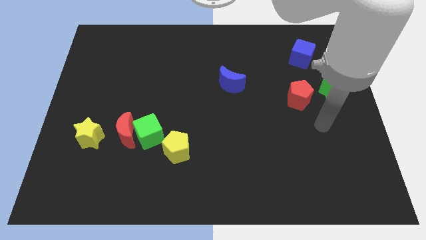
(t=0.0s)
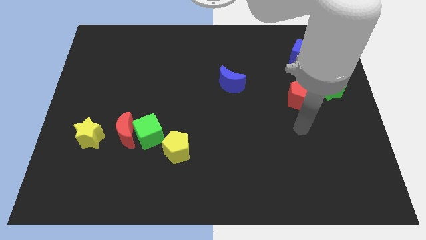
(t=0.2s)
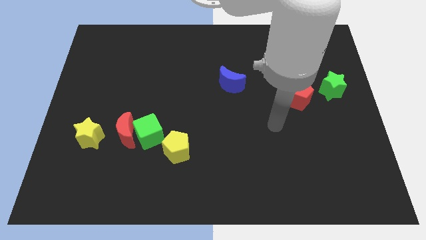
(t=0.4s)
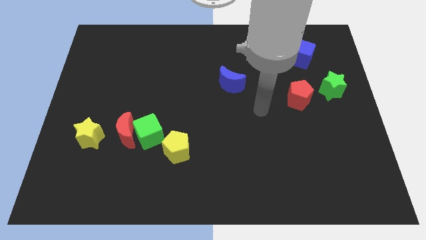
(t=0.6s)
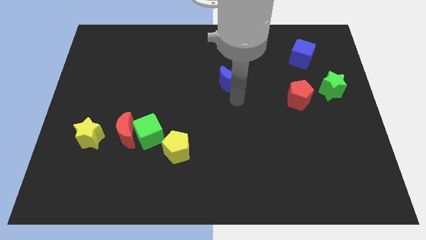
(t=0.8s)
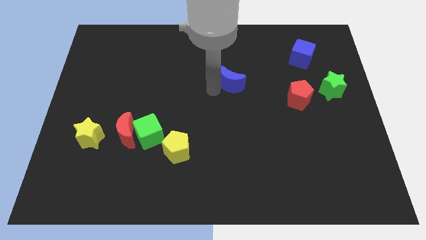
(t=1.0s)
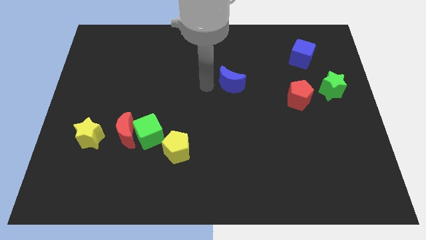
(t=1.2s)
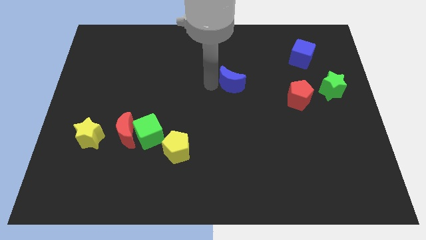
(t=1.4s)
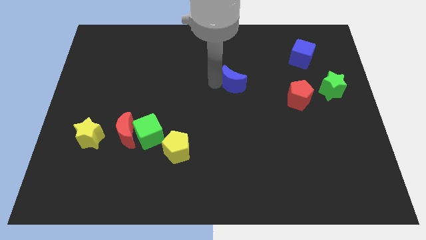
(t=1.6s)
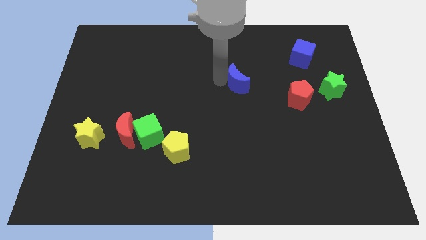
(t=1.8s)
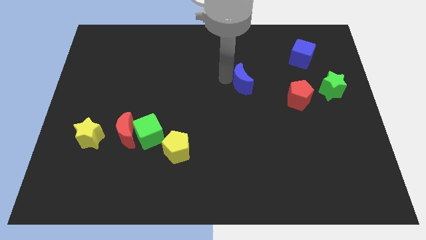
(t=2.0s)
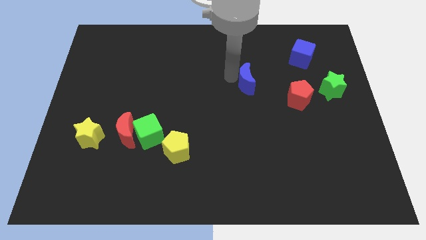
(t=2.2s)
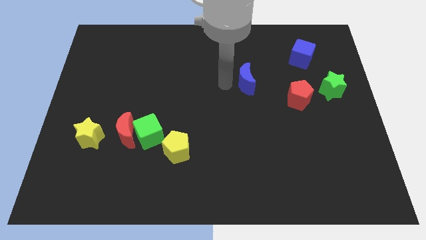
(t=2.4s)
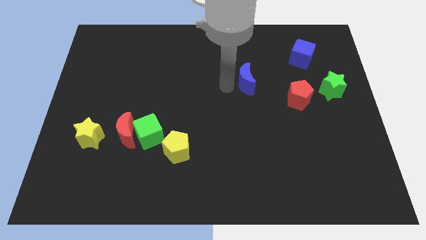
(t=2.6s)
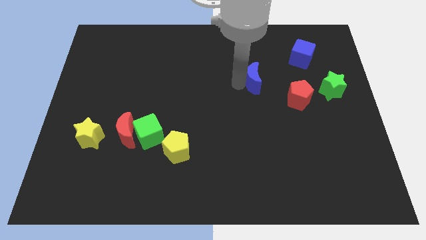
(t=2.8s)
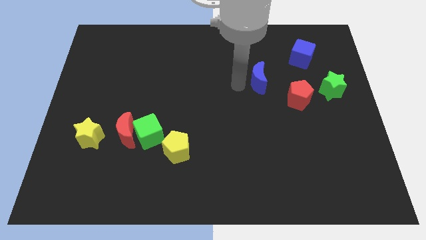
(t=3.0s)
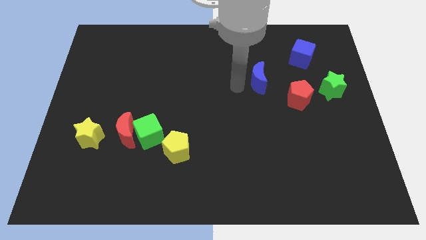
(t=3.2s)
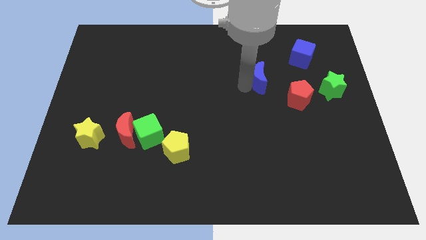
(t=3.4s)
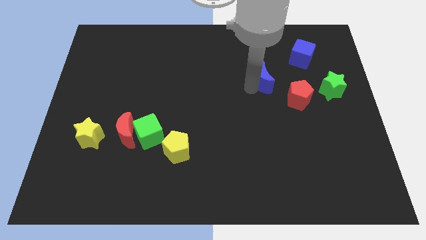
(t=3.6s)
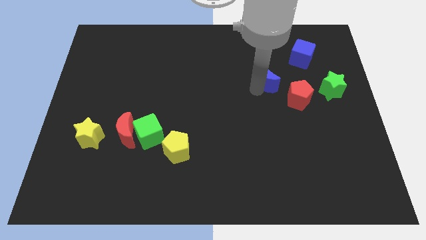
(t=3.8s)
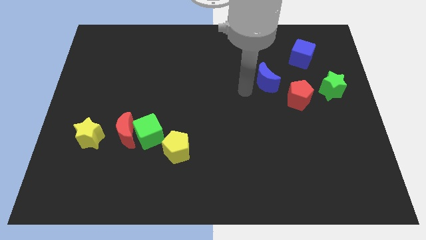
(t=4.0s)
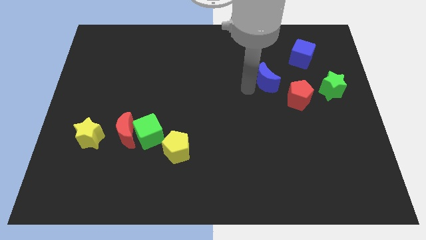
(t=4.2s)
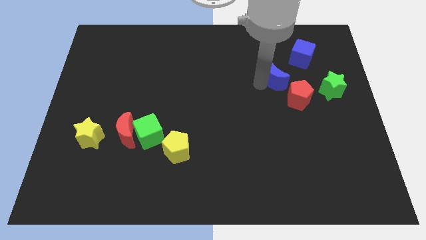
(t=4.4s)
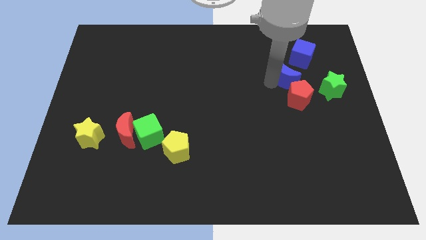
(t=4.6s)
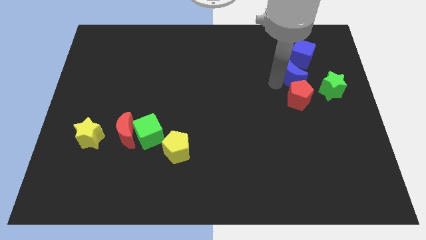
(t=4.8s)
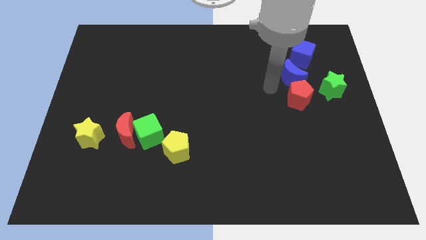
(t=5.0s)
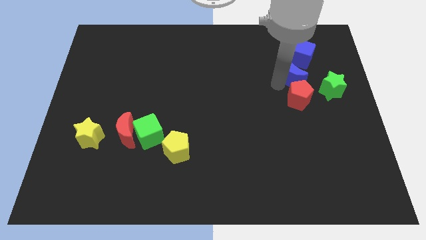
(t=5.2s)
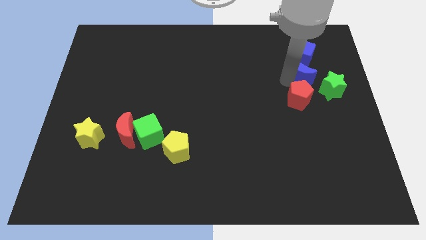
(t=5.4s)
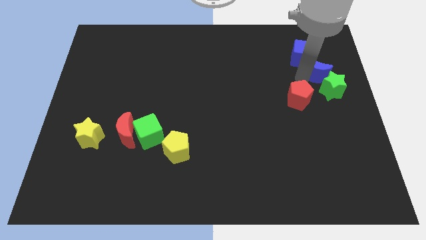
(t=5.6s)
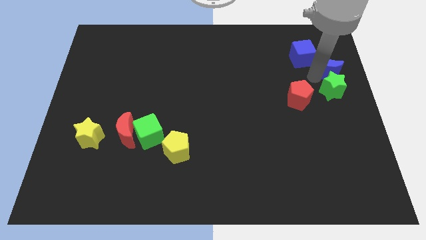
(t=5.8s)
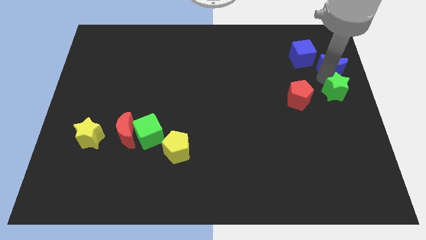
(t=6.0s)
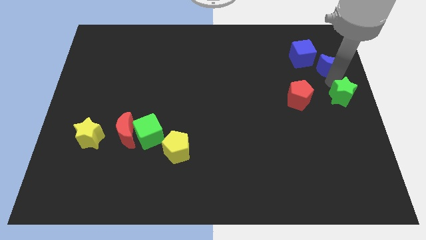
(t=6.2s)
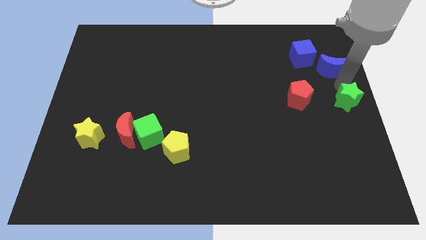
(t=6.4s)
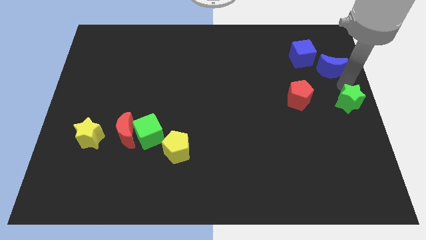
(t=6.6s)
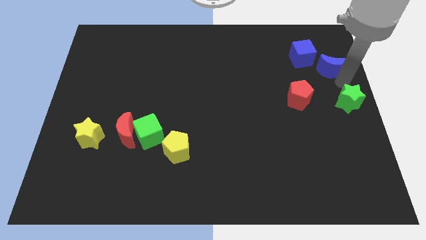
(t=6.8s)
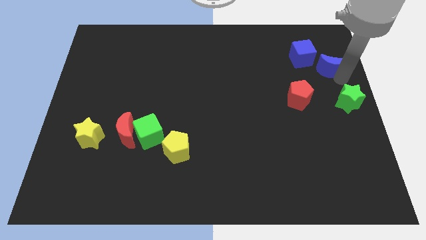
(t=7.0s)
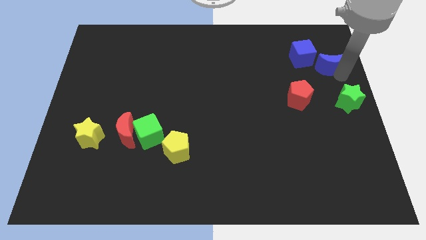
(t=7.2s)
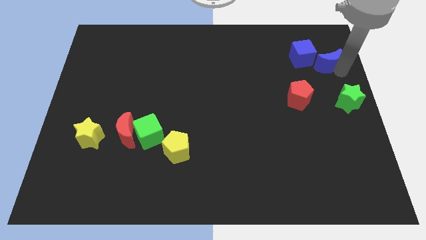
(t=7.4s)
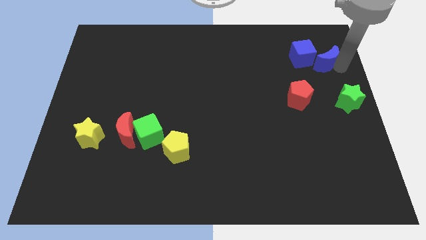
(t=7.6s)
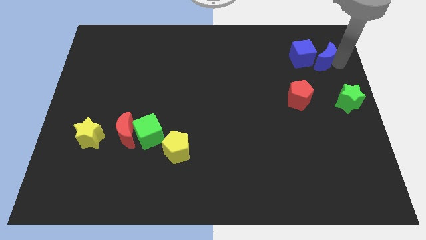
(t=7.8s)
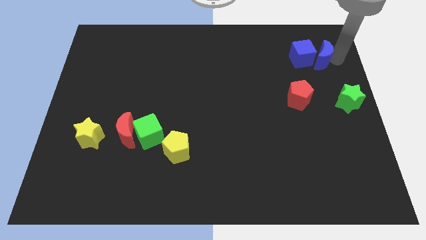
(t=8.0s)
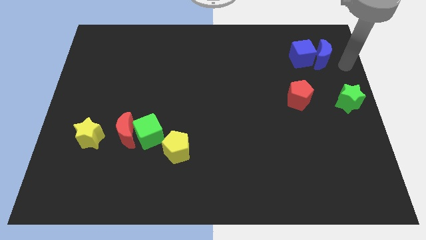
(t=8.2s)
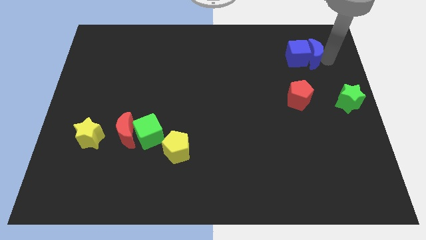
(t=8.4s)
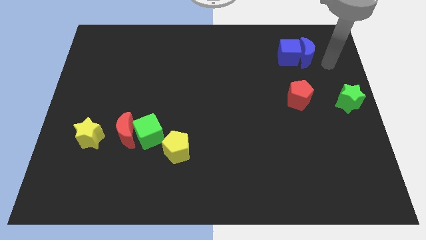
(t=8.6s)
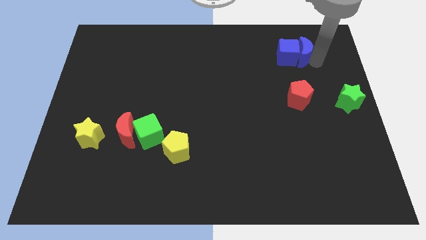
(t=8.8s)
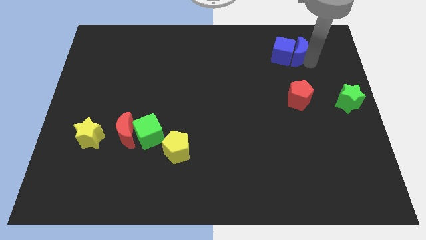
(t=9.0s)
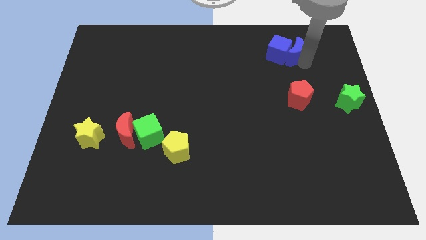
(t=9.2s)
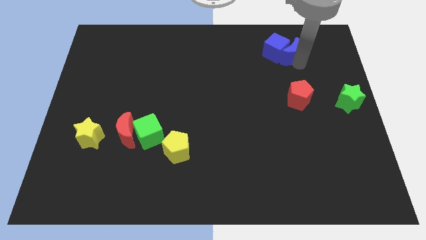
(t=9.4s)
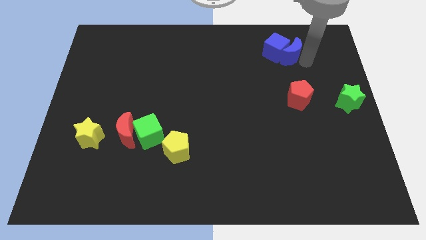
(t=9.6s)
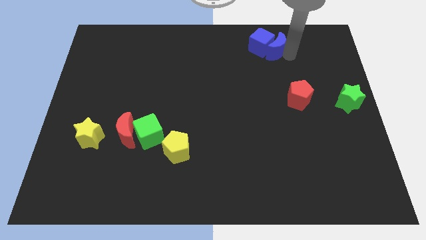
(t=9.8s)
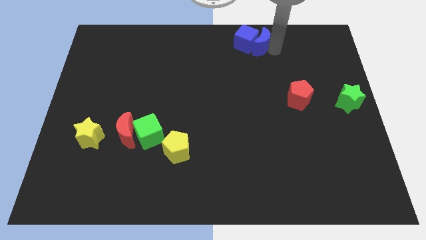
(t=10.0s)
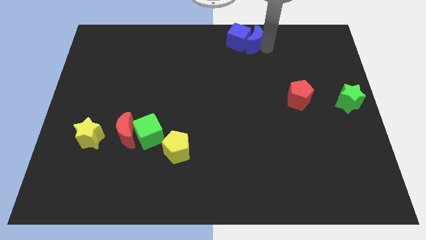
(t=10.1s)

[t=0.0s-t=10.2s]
move the blue moon to the top
